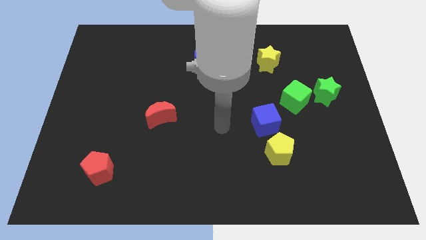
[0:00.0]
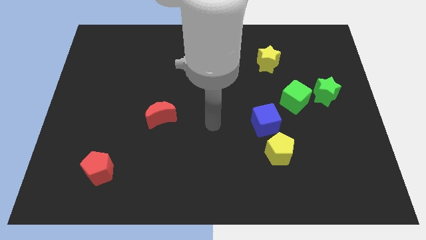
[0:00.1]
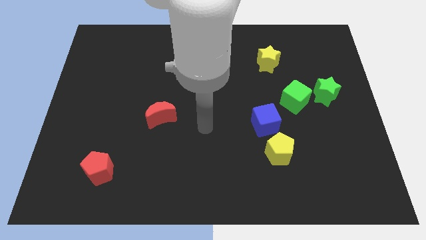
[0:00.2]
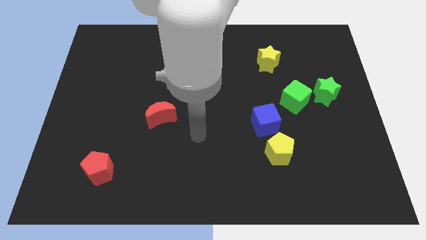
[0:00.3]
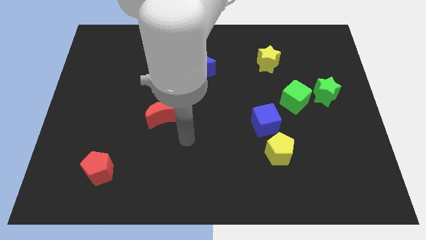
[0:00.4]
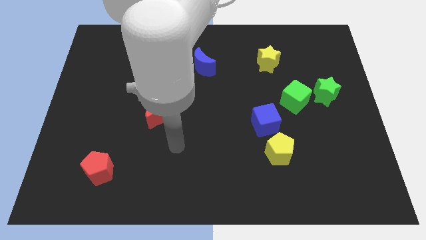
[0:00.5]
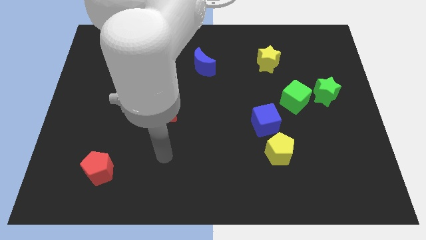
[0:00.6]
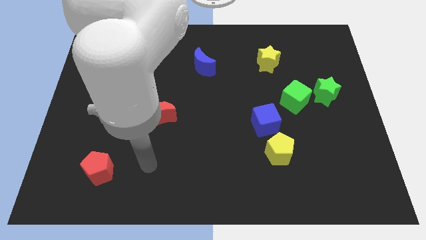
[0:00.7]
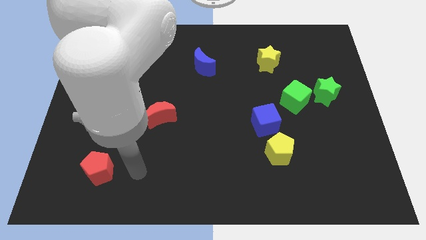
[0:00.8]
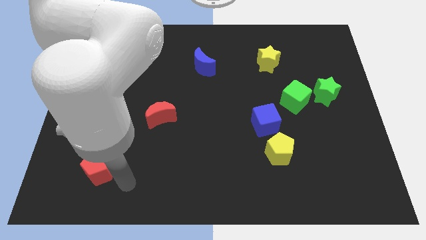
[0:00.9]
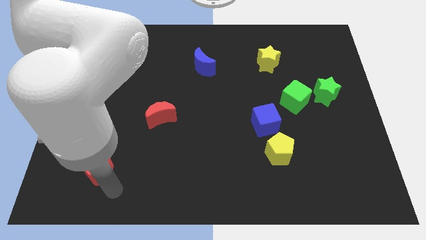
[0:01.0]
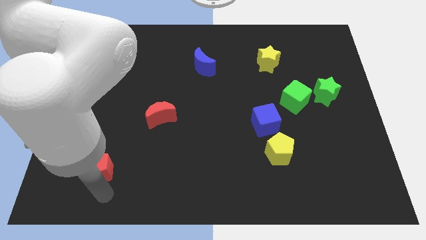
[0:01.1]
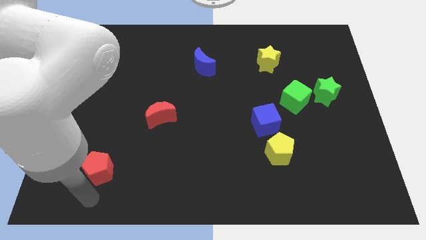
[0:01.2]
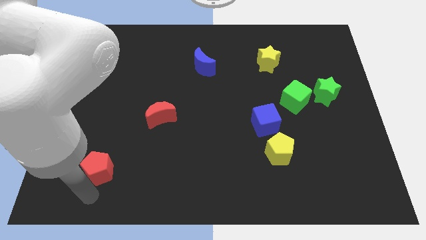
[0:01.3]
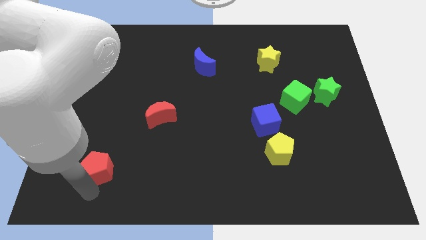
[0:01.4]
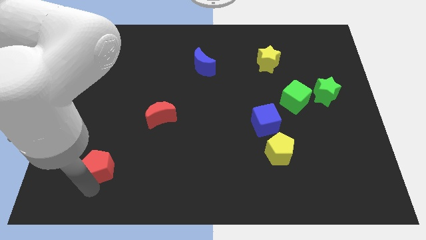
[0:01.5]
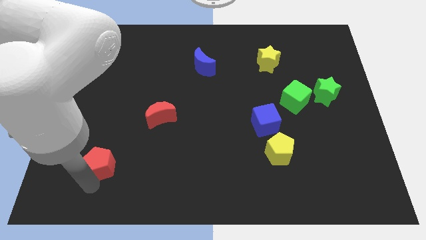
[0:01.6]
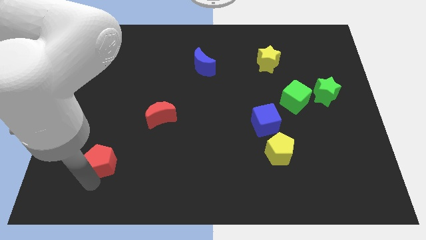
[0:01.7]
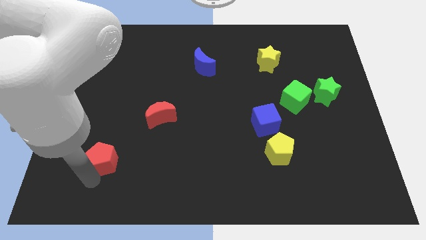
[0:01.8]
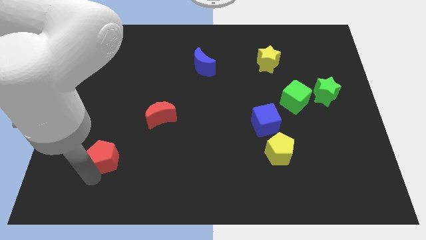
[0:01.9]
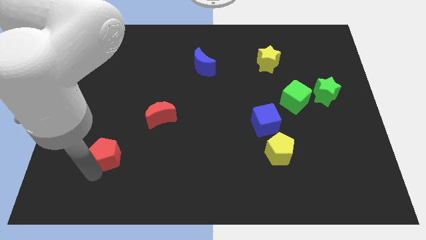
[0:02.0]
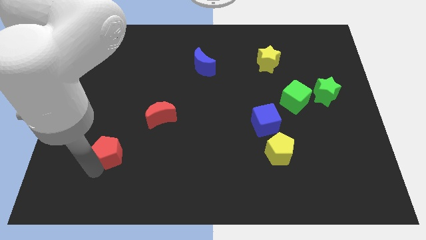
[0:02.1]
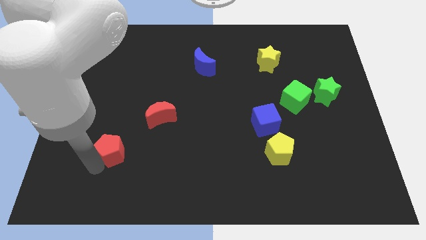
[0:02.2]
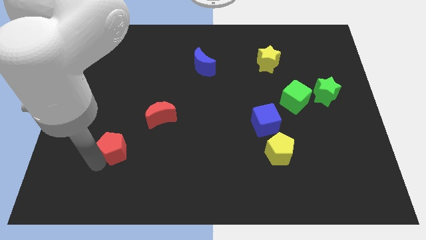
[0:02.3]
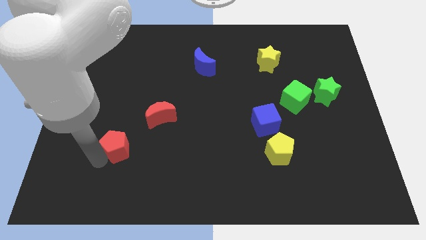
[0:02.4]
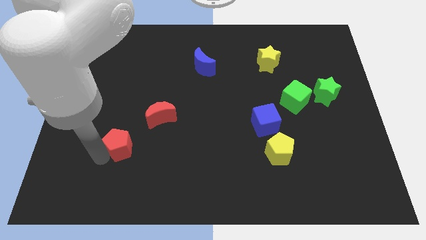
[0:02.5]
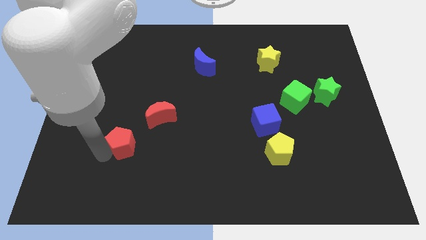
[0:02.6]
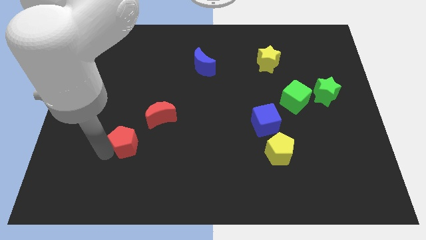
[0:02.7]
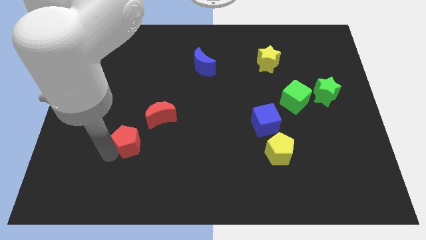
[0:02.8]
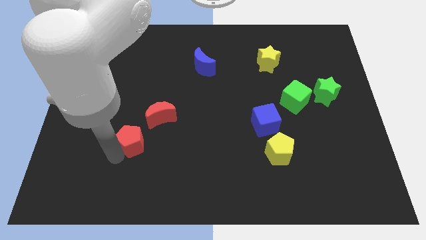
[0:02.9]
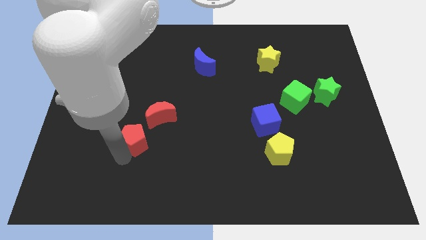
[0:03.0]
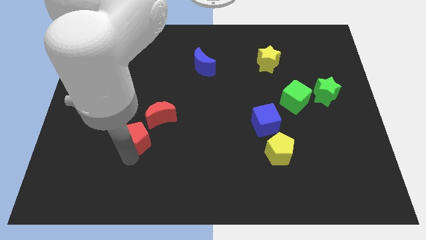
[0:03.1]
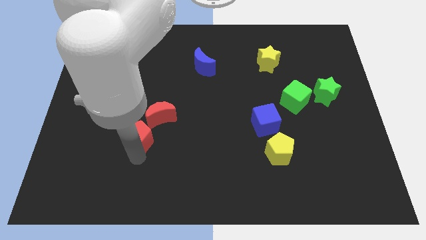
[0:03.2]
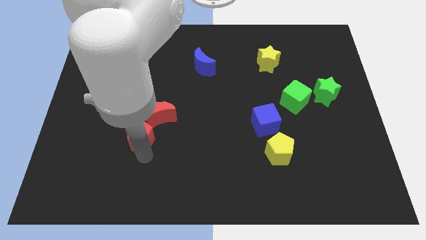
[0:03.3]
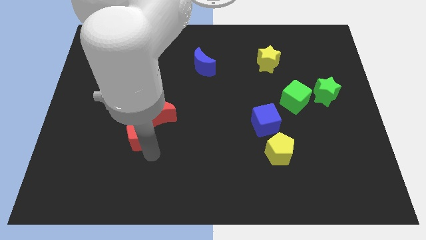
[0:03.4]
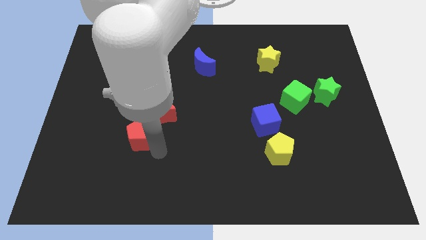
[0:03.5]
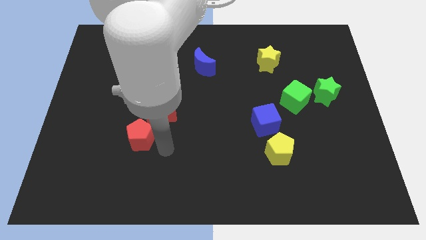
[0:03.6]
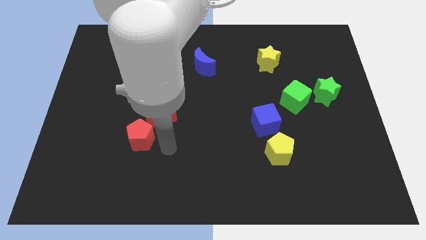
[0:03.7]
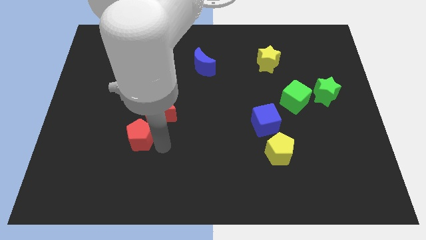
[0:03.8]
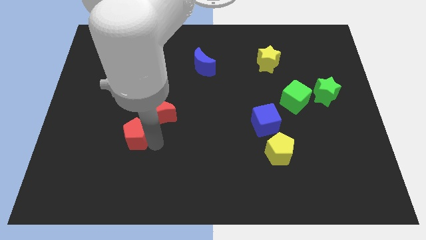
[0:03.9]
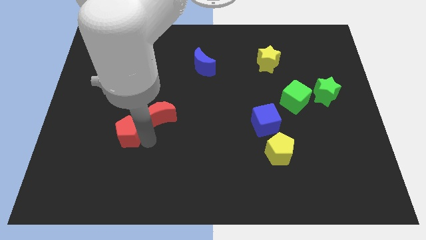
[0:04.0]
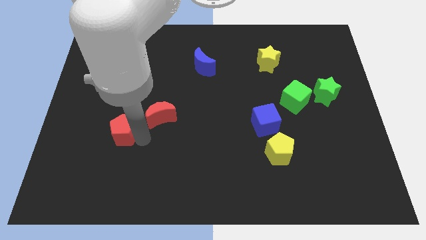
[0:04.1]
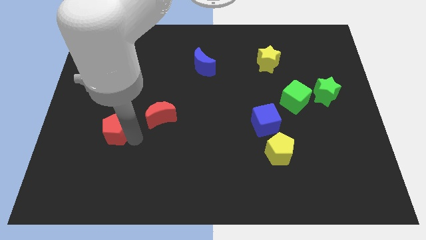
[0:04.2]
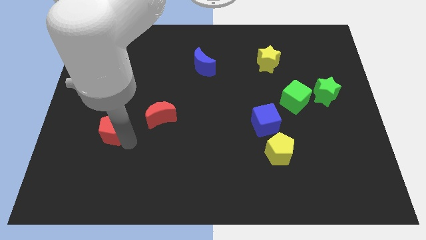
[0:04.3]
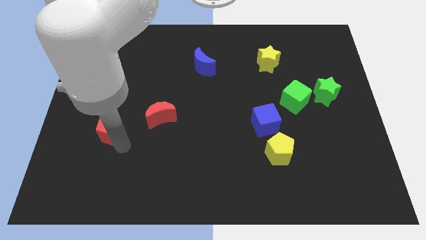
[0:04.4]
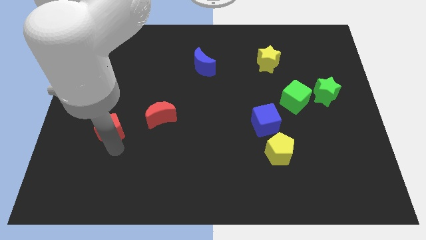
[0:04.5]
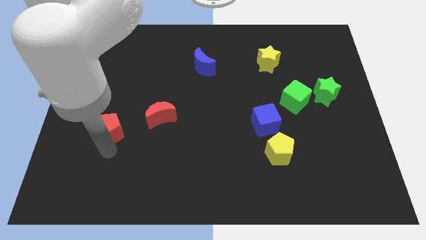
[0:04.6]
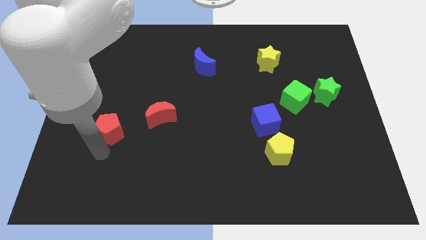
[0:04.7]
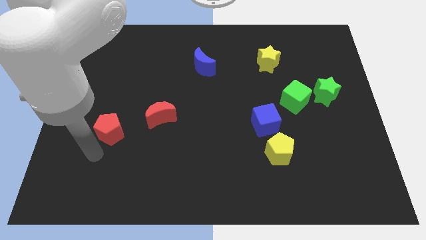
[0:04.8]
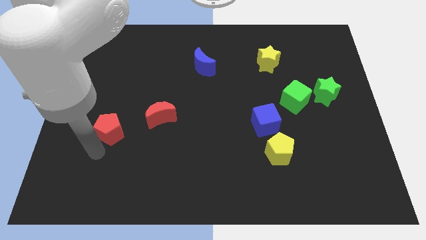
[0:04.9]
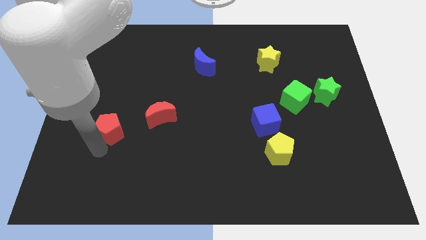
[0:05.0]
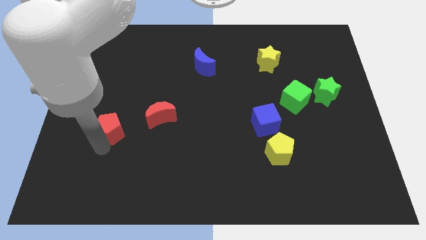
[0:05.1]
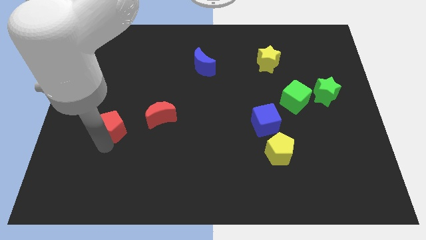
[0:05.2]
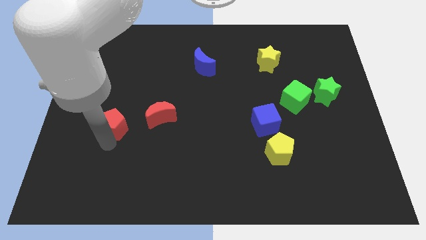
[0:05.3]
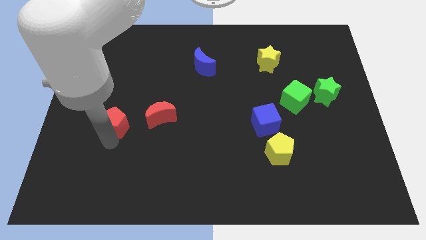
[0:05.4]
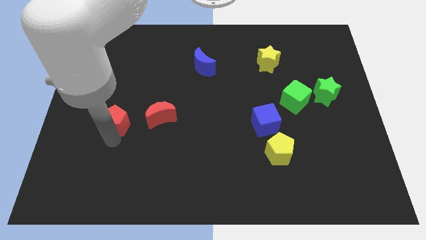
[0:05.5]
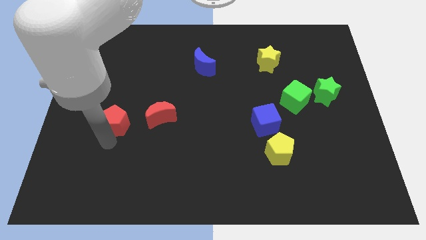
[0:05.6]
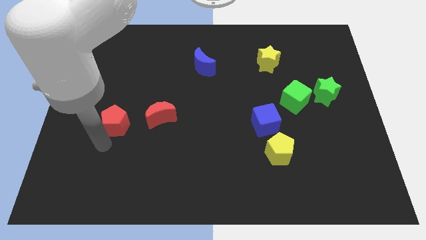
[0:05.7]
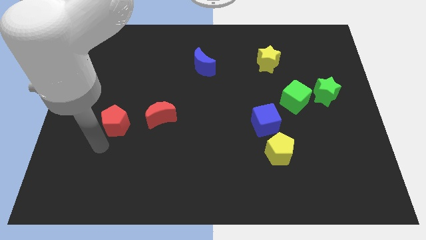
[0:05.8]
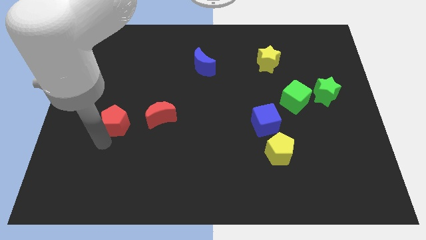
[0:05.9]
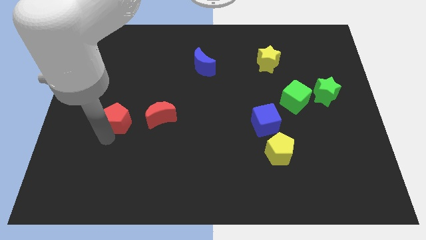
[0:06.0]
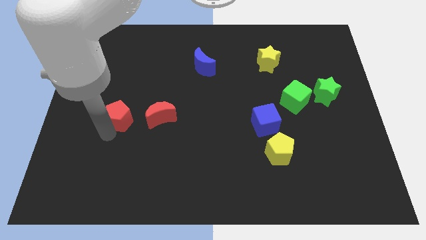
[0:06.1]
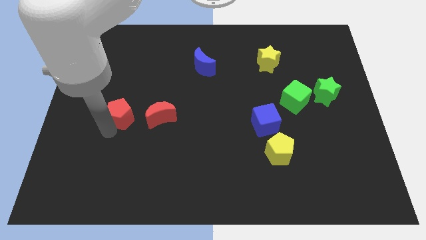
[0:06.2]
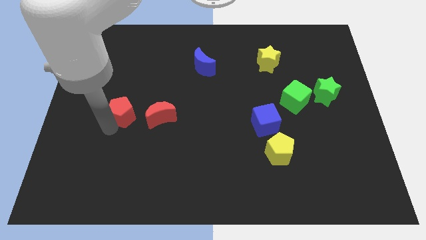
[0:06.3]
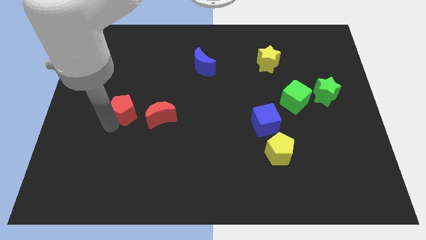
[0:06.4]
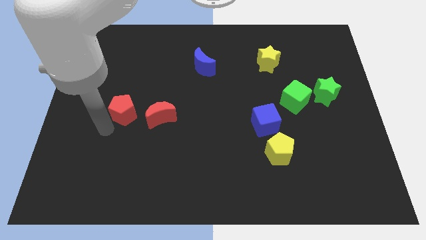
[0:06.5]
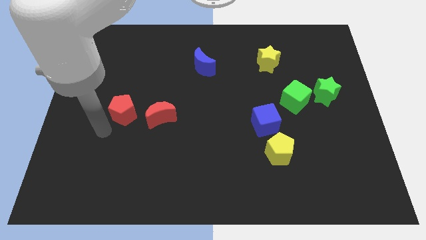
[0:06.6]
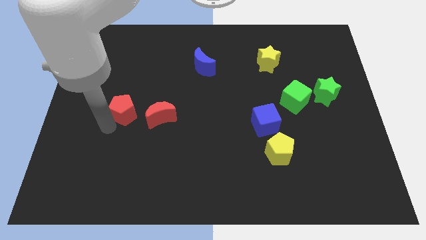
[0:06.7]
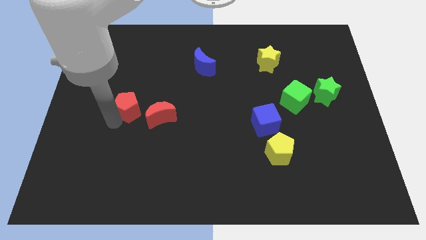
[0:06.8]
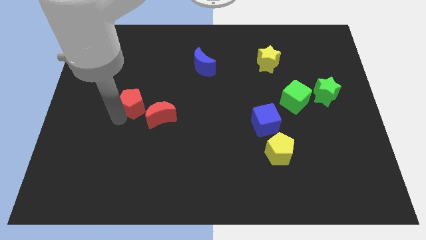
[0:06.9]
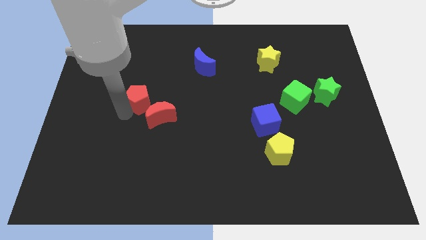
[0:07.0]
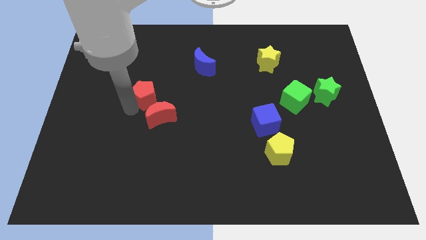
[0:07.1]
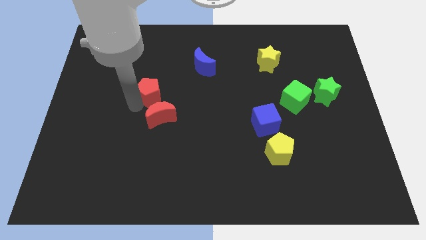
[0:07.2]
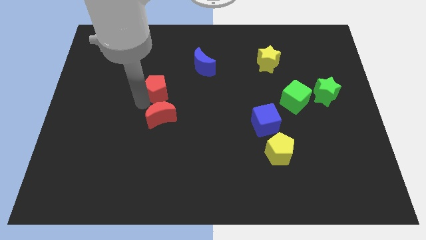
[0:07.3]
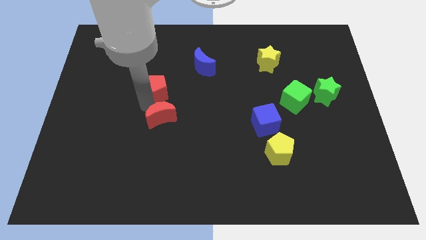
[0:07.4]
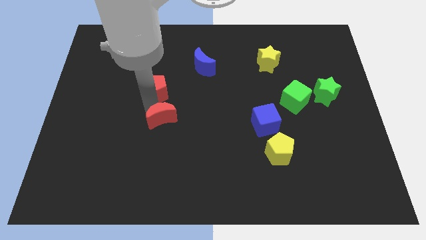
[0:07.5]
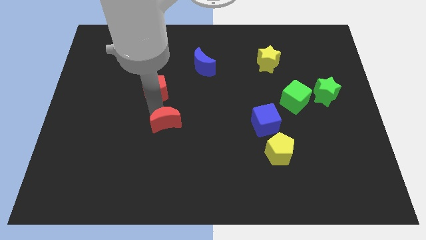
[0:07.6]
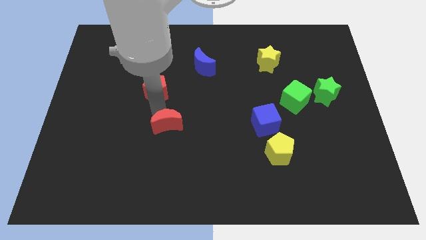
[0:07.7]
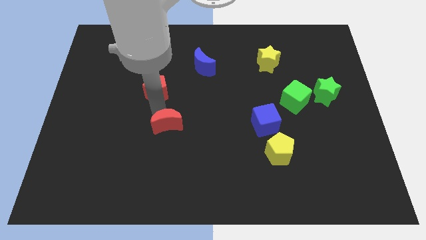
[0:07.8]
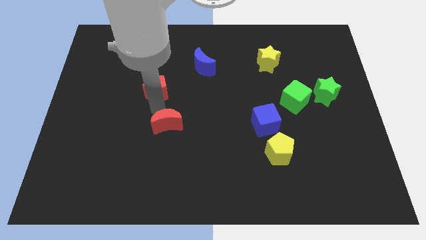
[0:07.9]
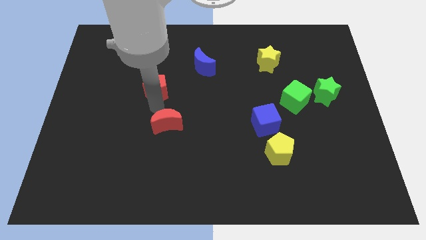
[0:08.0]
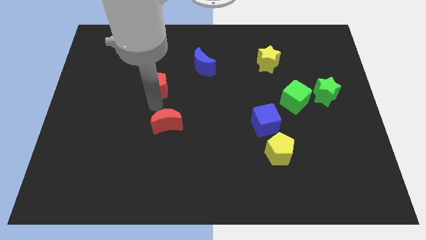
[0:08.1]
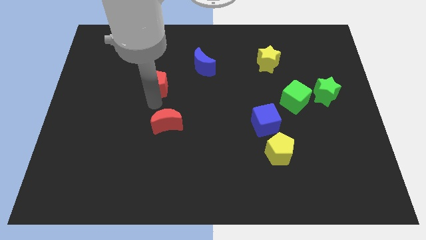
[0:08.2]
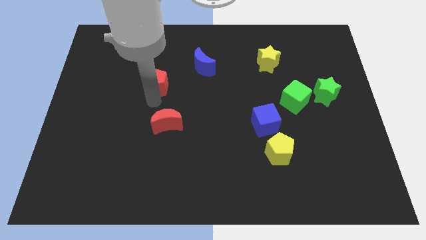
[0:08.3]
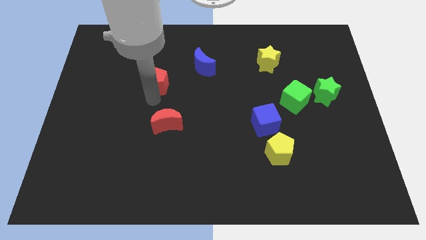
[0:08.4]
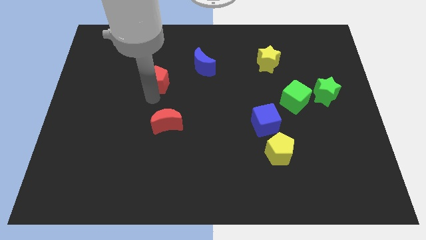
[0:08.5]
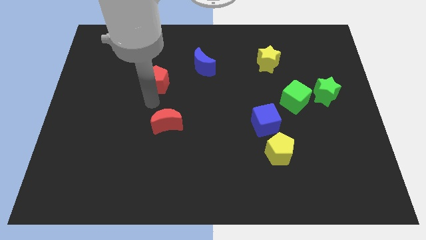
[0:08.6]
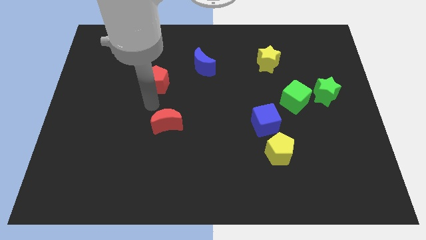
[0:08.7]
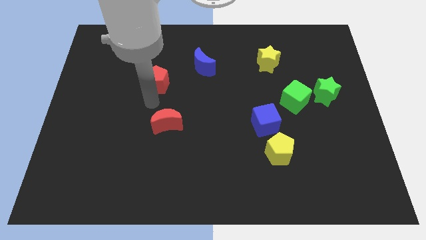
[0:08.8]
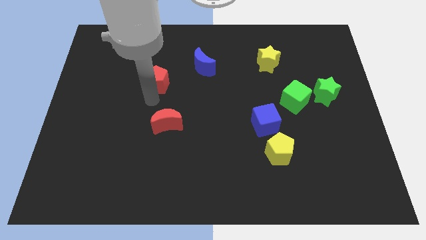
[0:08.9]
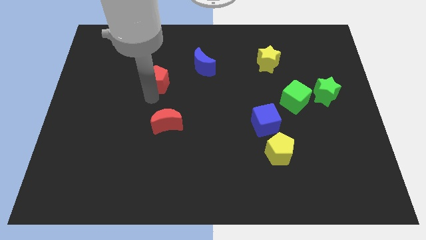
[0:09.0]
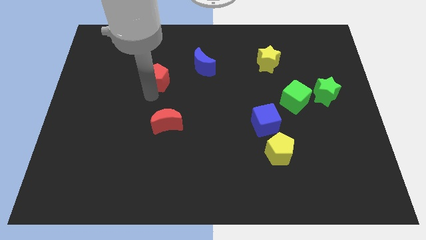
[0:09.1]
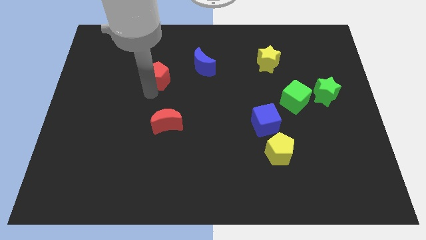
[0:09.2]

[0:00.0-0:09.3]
put the red pentagon left of the blue moon
